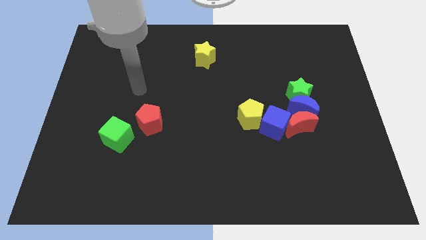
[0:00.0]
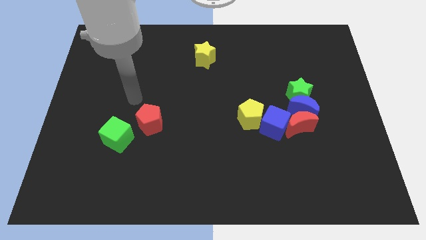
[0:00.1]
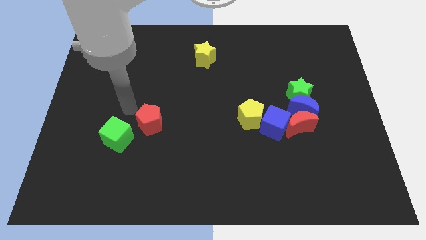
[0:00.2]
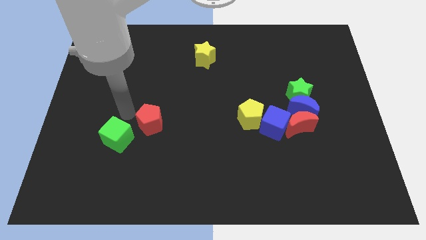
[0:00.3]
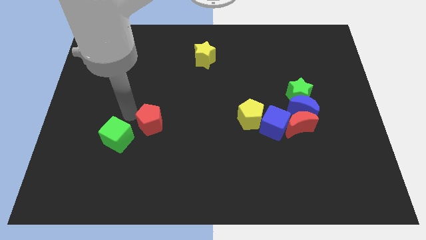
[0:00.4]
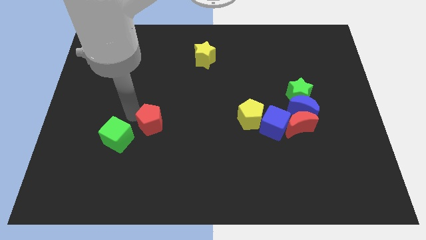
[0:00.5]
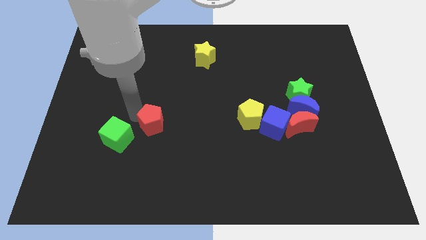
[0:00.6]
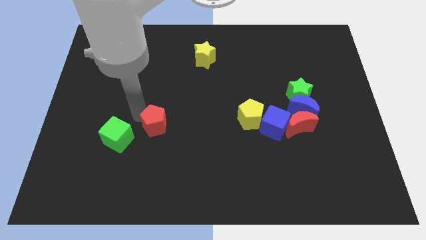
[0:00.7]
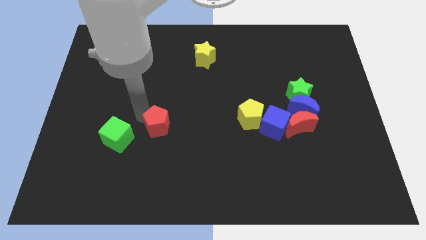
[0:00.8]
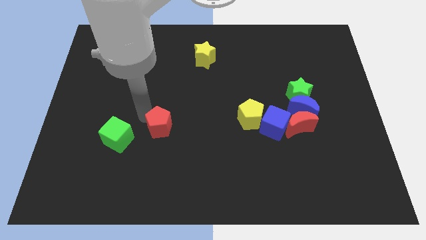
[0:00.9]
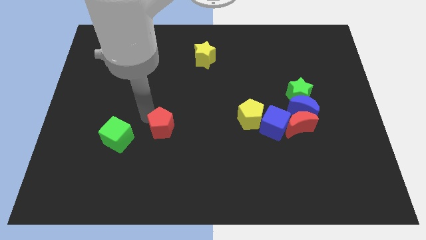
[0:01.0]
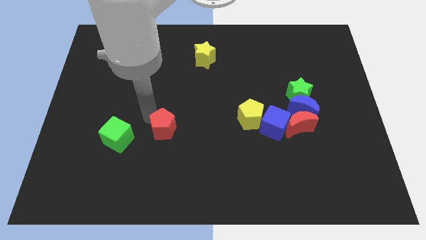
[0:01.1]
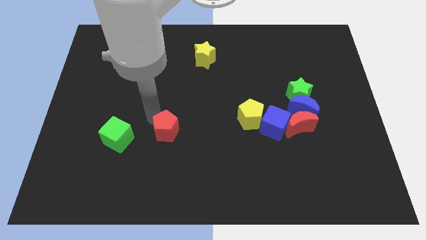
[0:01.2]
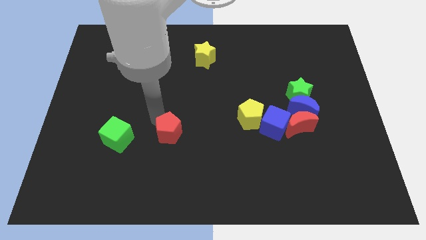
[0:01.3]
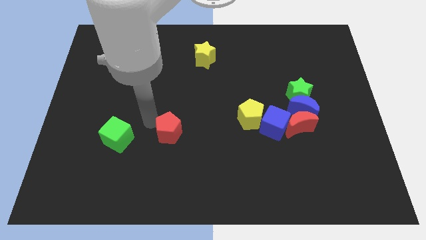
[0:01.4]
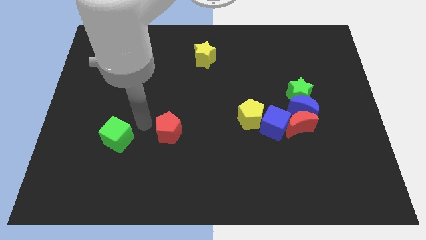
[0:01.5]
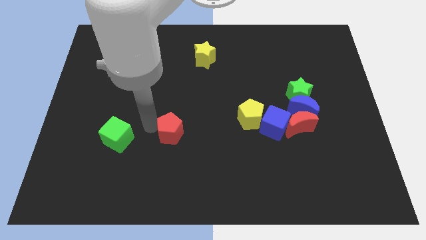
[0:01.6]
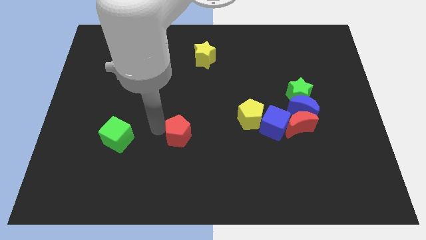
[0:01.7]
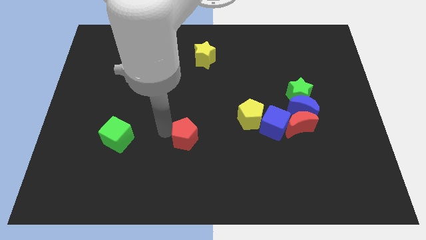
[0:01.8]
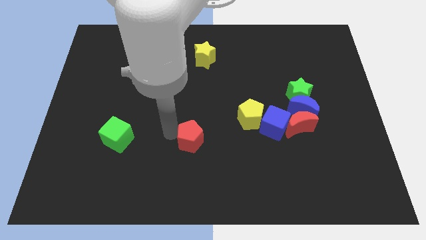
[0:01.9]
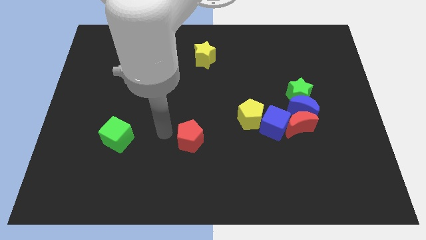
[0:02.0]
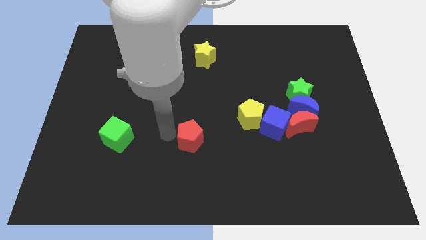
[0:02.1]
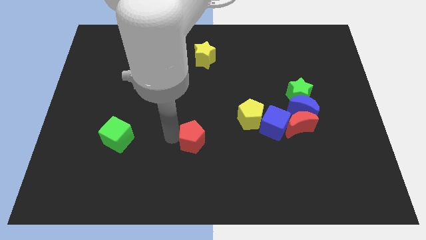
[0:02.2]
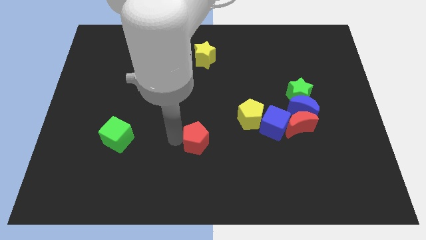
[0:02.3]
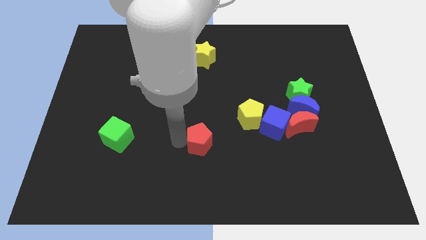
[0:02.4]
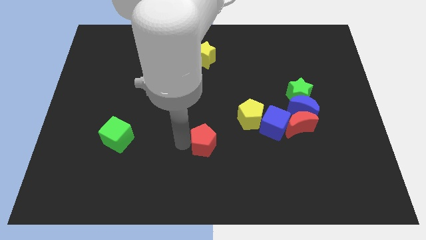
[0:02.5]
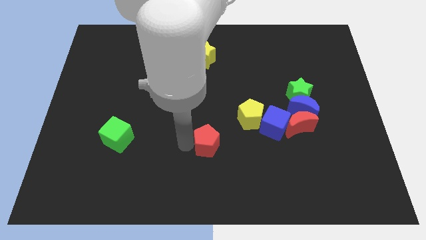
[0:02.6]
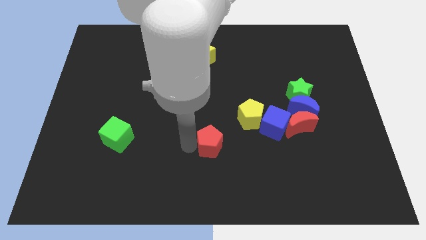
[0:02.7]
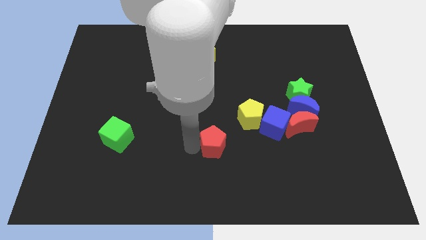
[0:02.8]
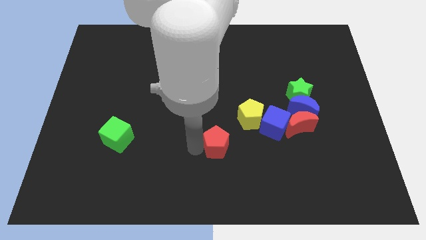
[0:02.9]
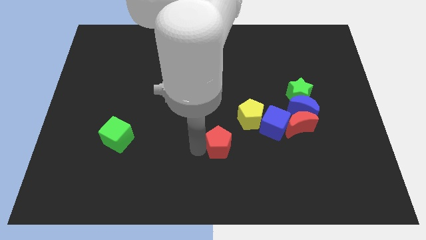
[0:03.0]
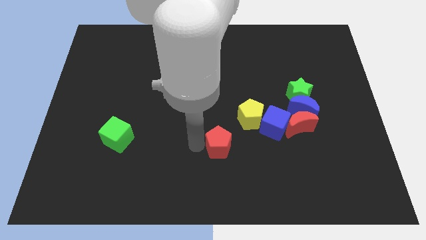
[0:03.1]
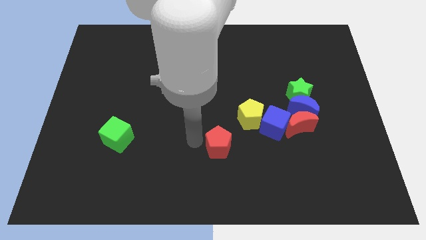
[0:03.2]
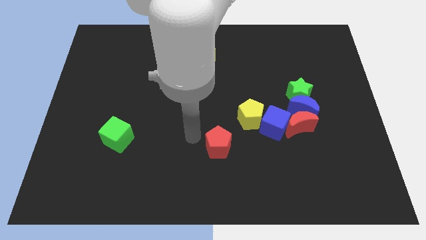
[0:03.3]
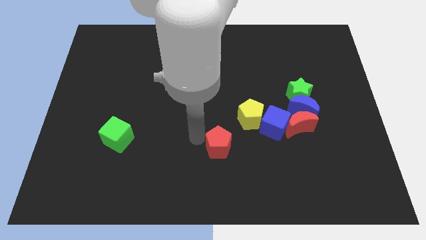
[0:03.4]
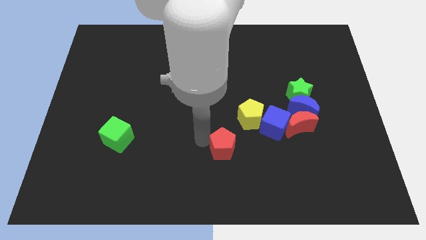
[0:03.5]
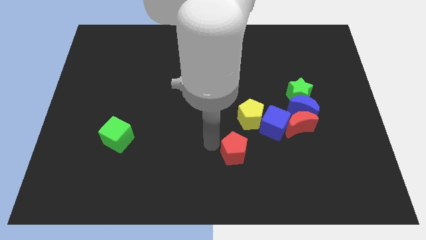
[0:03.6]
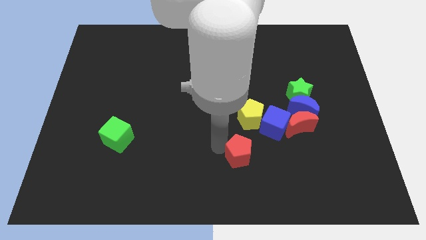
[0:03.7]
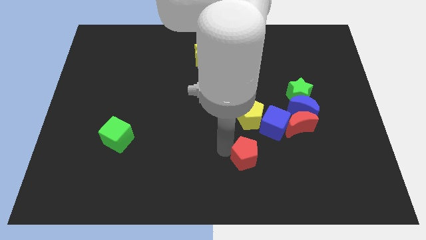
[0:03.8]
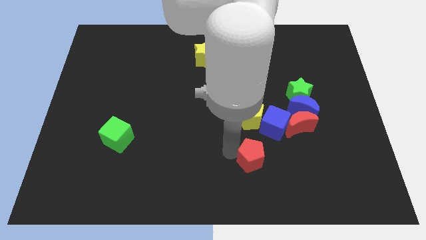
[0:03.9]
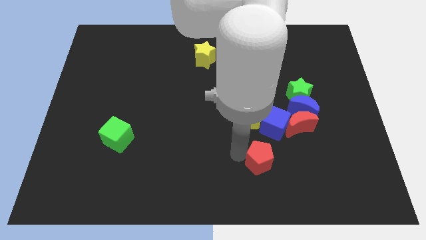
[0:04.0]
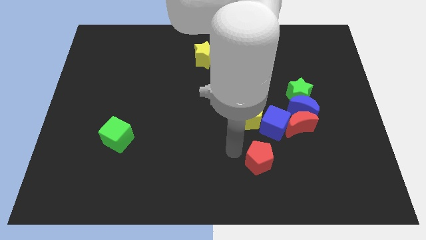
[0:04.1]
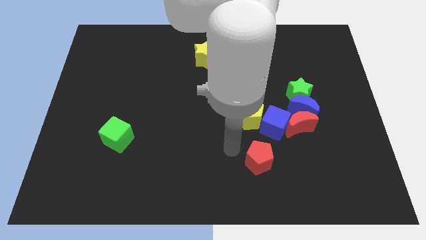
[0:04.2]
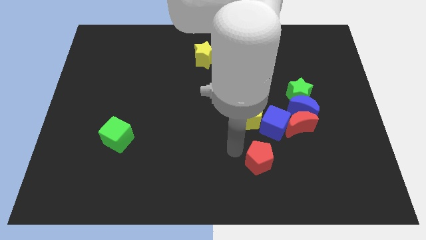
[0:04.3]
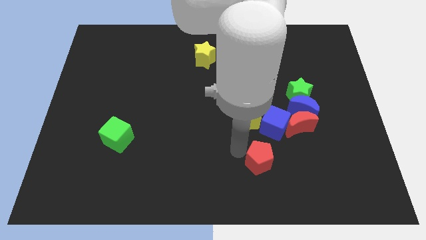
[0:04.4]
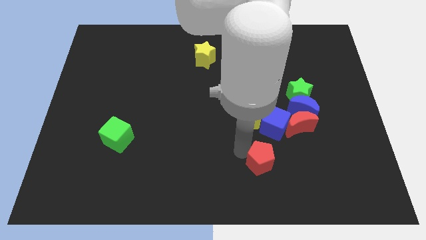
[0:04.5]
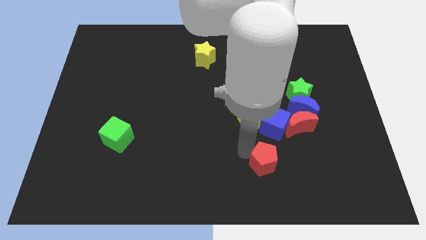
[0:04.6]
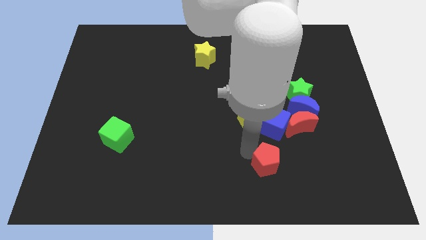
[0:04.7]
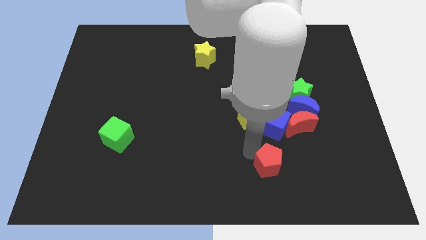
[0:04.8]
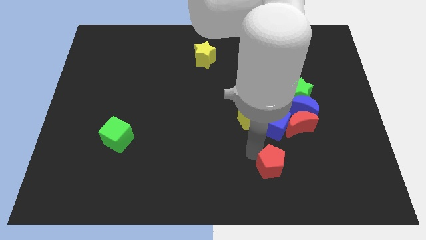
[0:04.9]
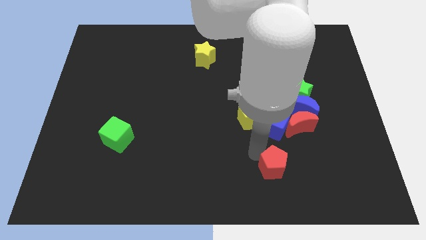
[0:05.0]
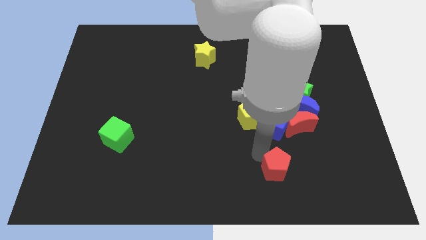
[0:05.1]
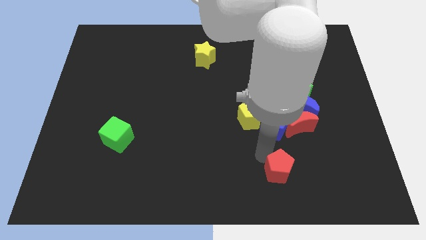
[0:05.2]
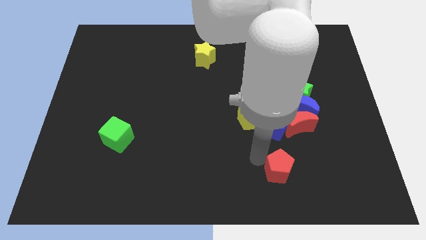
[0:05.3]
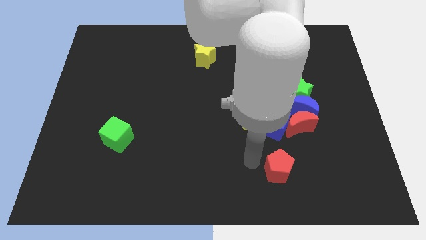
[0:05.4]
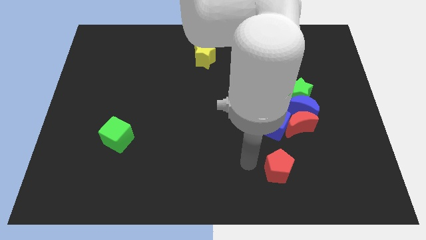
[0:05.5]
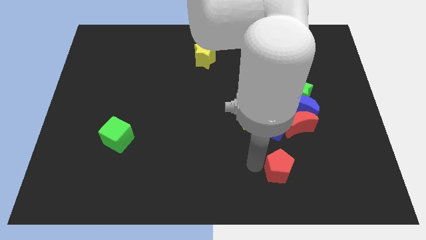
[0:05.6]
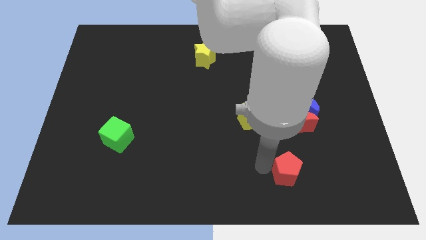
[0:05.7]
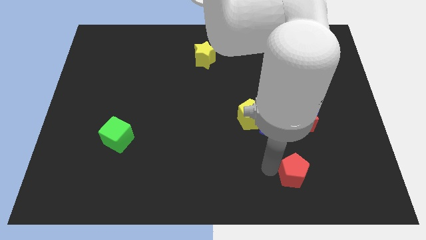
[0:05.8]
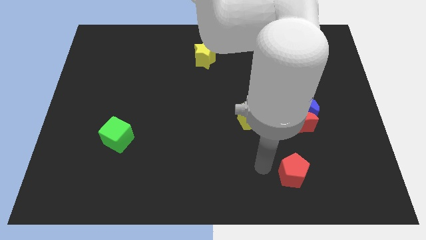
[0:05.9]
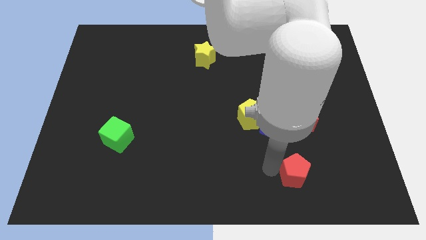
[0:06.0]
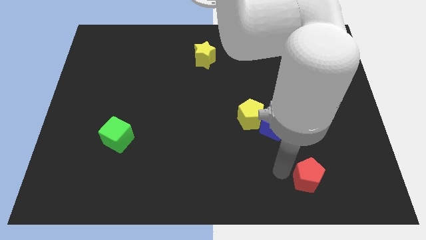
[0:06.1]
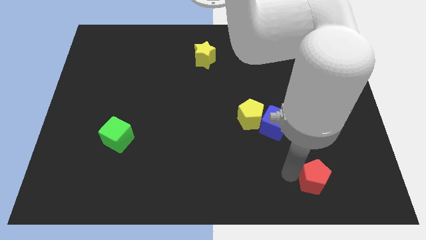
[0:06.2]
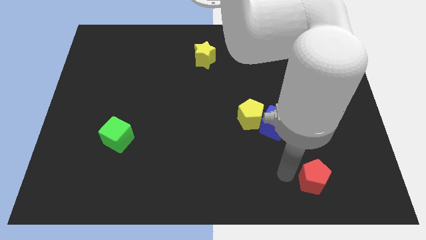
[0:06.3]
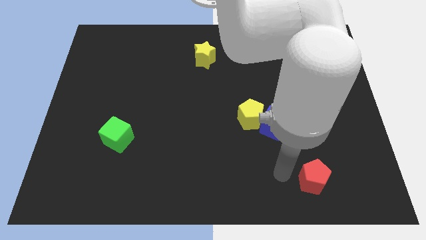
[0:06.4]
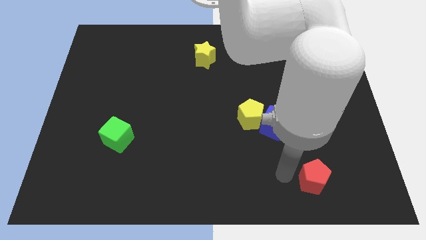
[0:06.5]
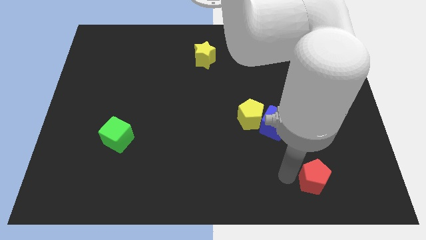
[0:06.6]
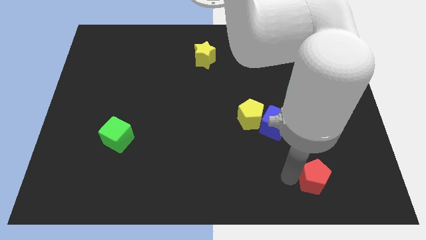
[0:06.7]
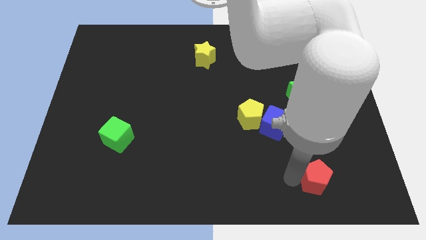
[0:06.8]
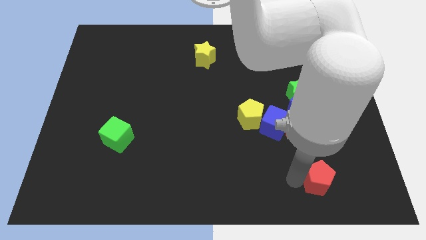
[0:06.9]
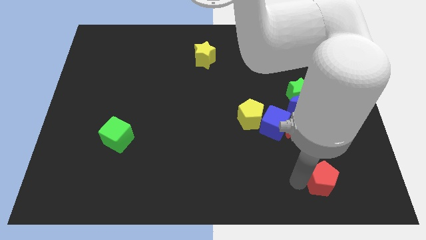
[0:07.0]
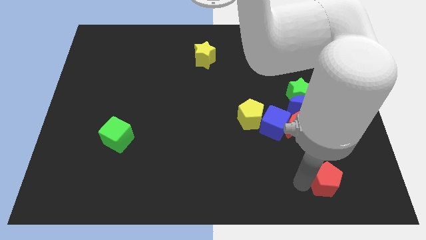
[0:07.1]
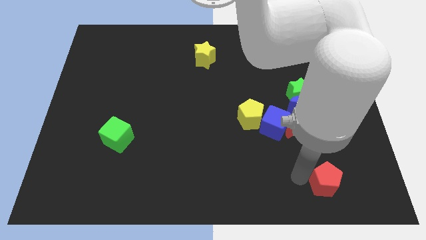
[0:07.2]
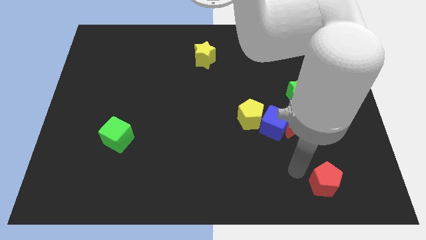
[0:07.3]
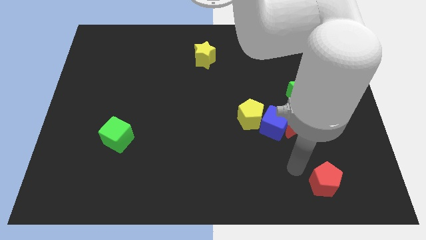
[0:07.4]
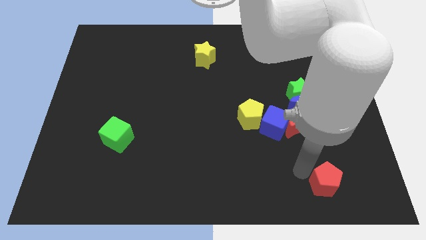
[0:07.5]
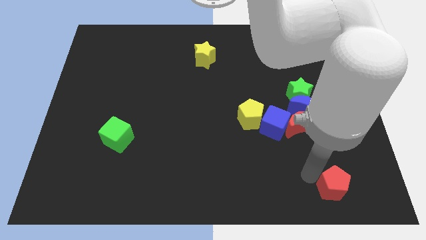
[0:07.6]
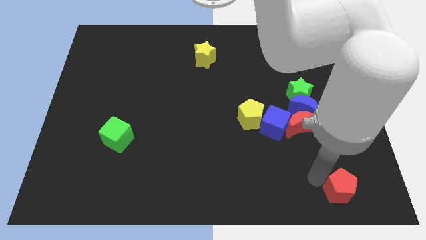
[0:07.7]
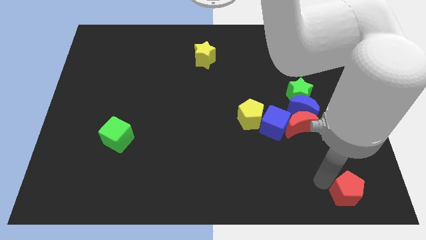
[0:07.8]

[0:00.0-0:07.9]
move the red pentagon to the lower right corner
